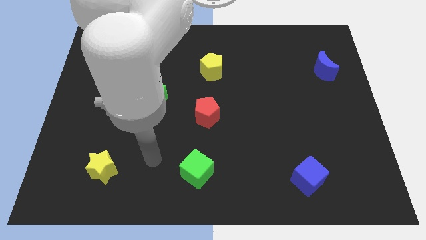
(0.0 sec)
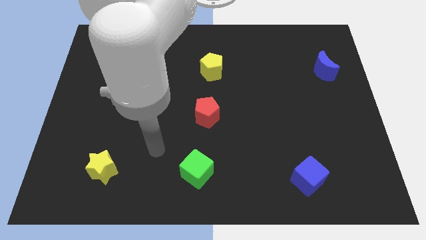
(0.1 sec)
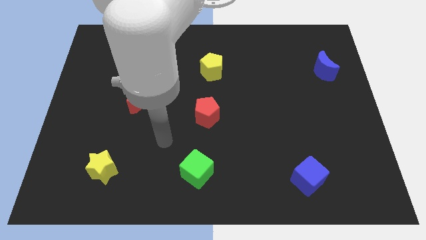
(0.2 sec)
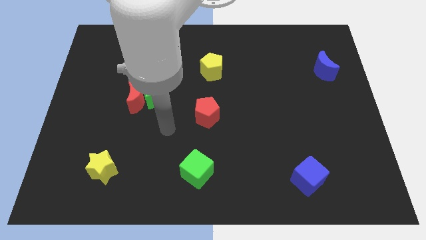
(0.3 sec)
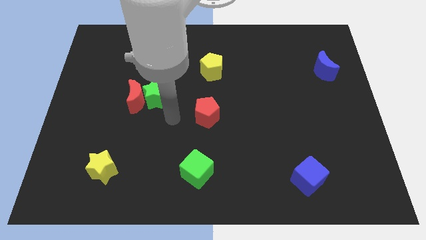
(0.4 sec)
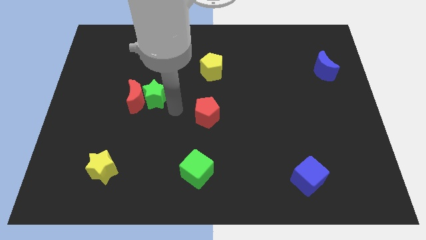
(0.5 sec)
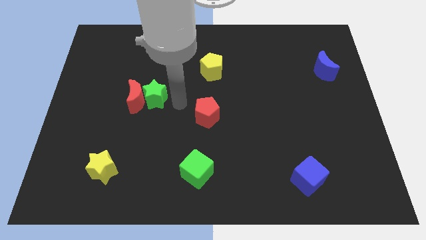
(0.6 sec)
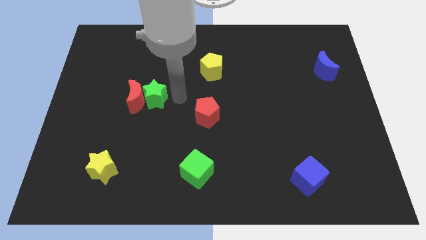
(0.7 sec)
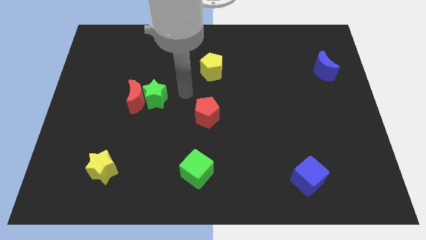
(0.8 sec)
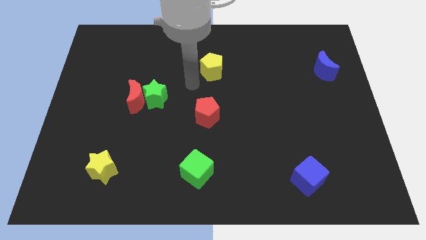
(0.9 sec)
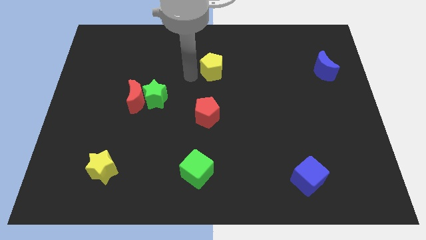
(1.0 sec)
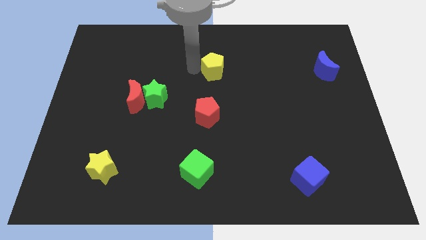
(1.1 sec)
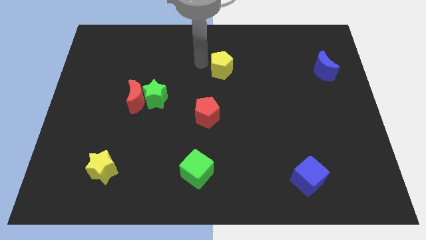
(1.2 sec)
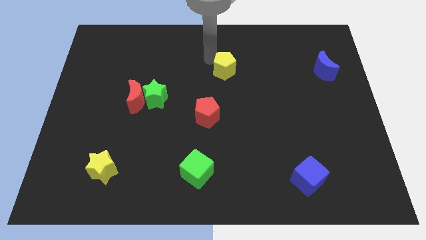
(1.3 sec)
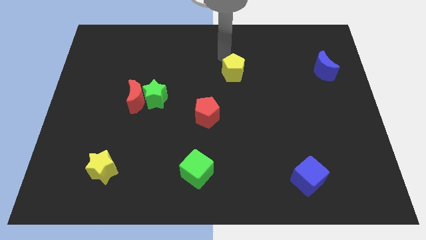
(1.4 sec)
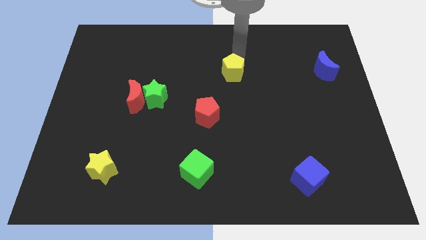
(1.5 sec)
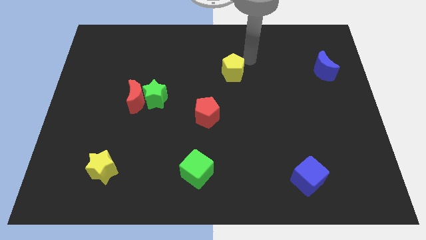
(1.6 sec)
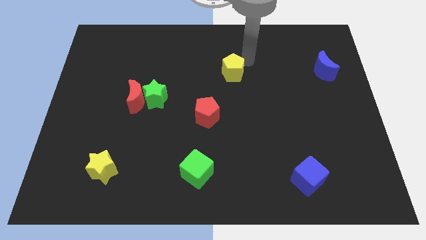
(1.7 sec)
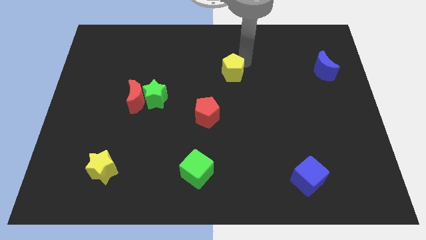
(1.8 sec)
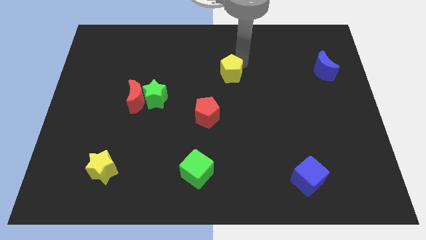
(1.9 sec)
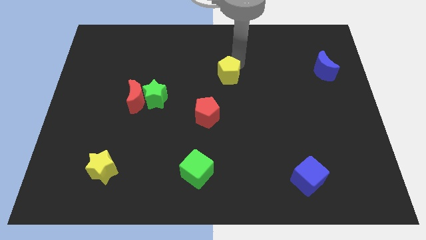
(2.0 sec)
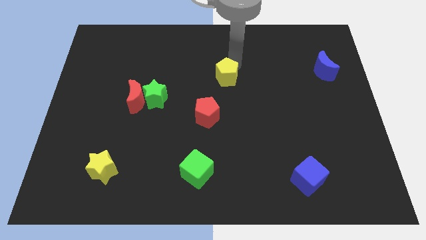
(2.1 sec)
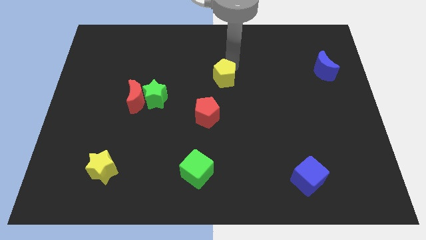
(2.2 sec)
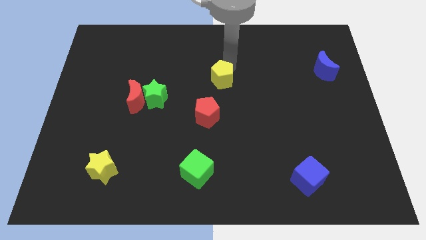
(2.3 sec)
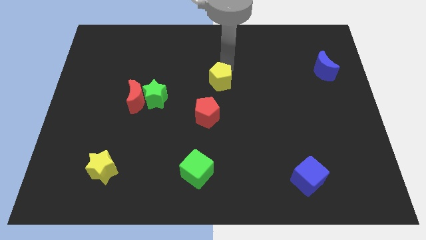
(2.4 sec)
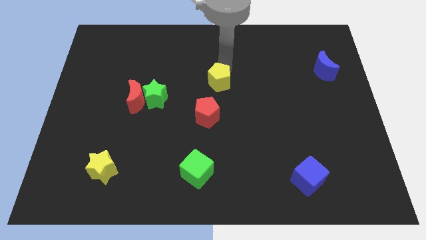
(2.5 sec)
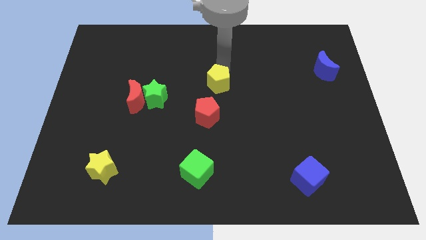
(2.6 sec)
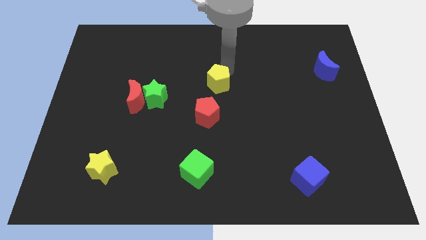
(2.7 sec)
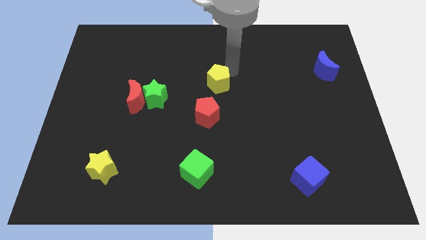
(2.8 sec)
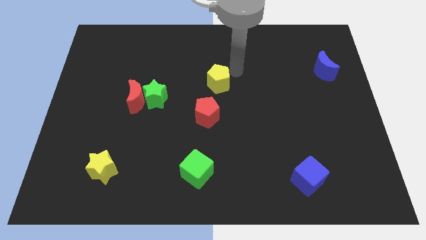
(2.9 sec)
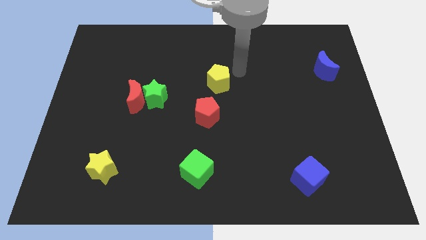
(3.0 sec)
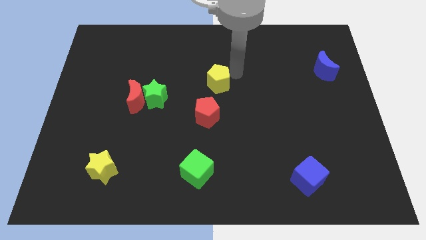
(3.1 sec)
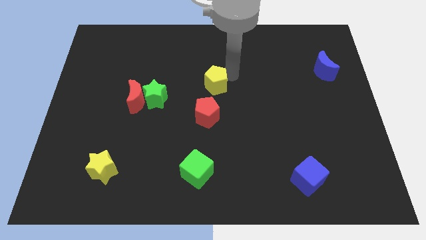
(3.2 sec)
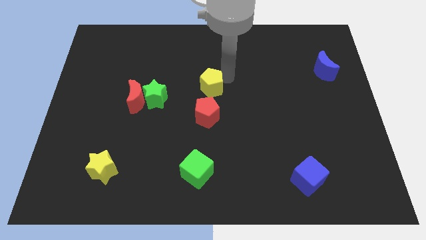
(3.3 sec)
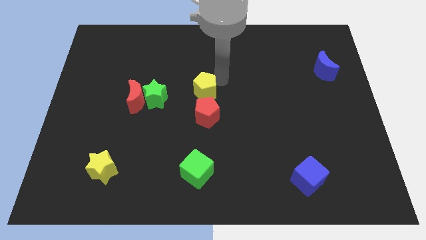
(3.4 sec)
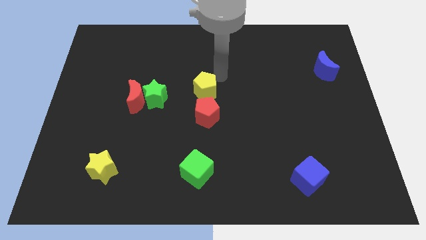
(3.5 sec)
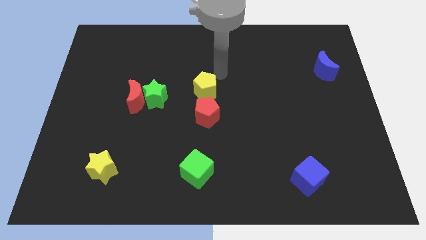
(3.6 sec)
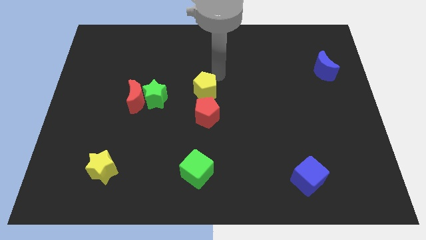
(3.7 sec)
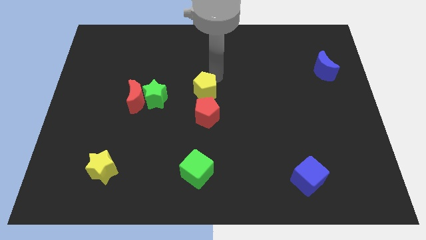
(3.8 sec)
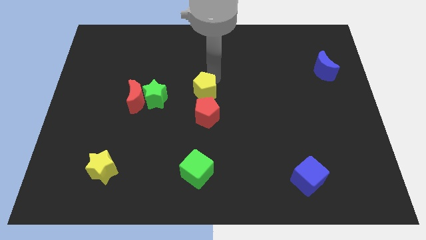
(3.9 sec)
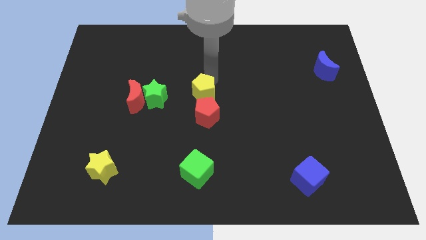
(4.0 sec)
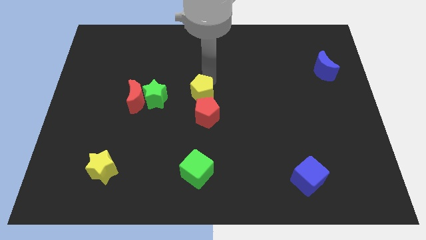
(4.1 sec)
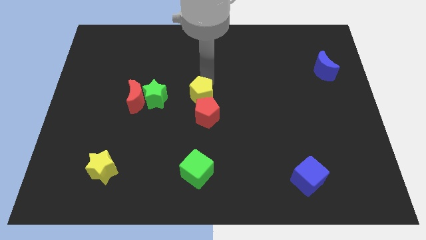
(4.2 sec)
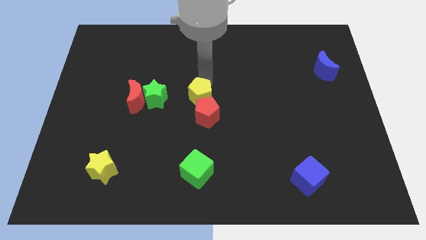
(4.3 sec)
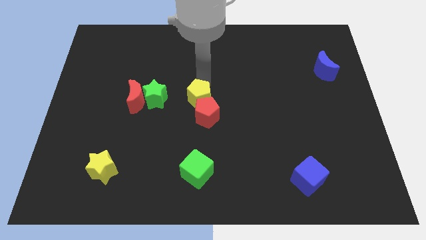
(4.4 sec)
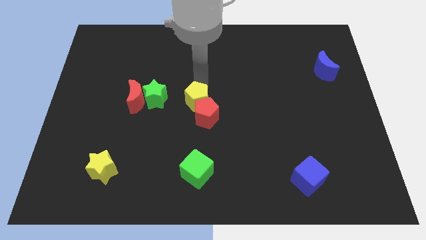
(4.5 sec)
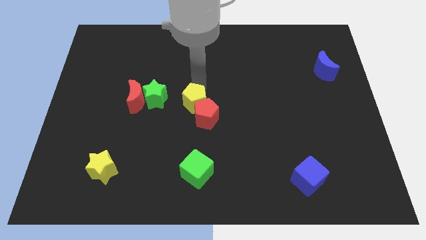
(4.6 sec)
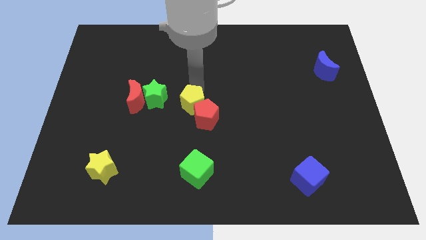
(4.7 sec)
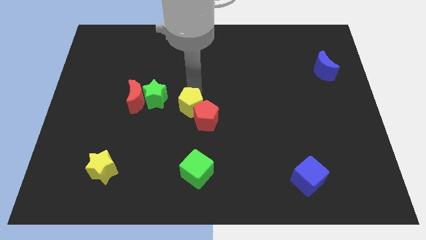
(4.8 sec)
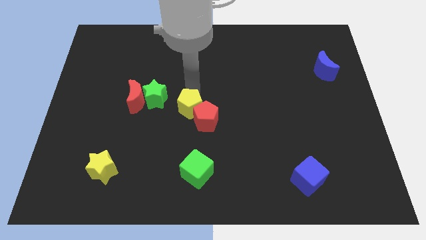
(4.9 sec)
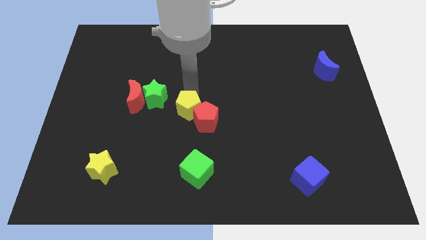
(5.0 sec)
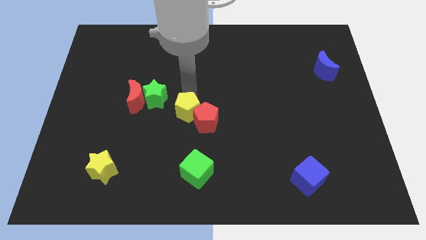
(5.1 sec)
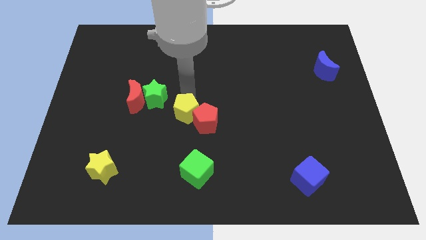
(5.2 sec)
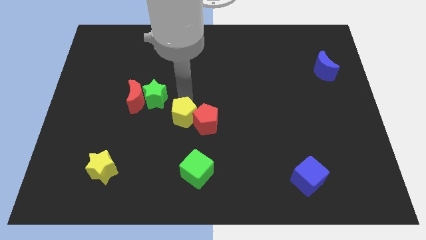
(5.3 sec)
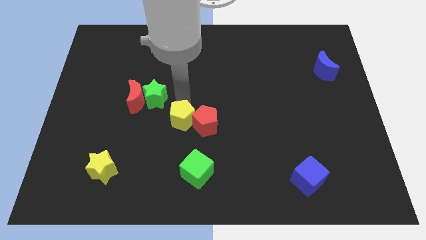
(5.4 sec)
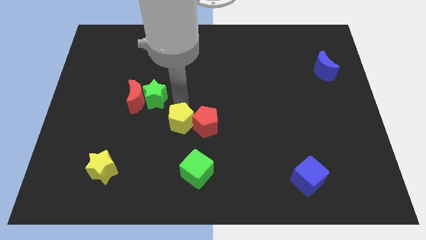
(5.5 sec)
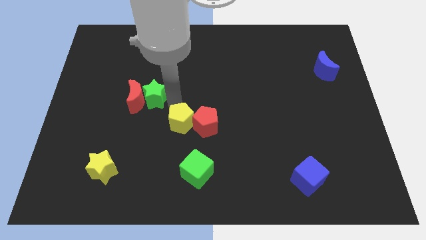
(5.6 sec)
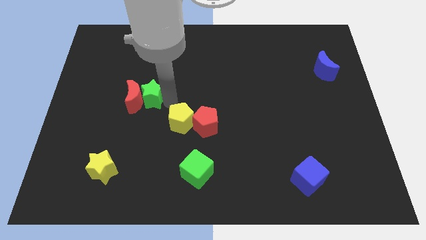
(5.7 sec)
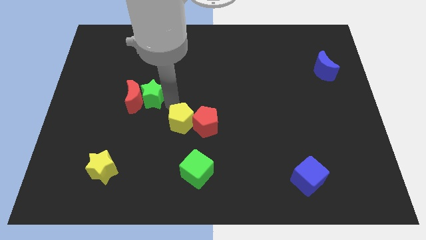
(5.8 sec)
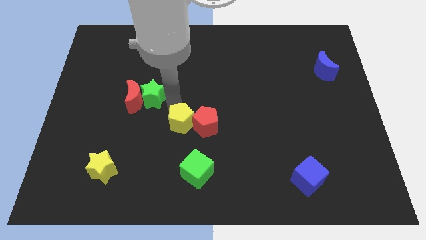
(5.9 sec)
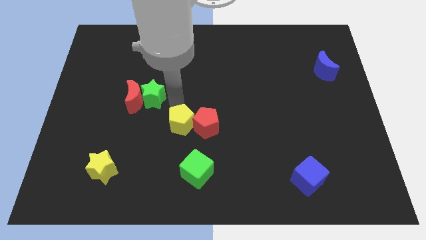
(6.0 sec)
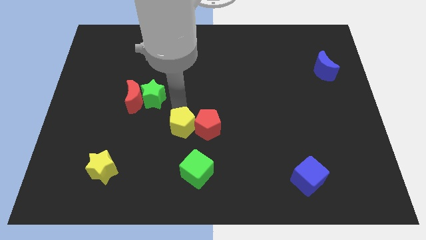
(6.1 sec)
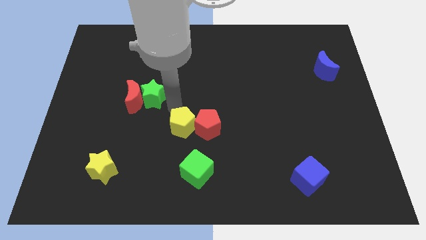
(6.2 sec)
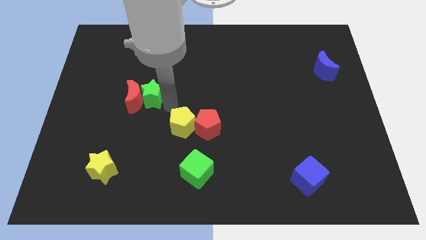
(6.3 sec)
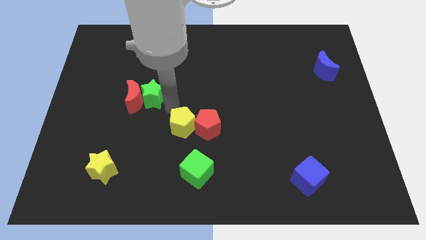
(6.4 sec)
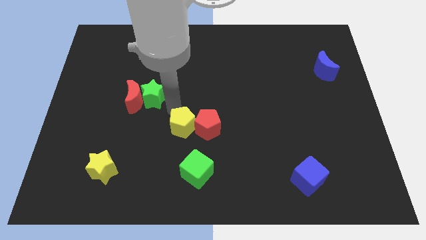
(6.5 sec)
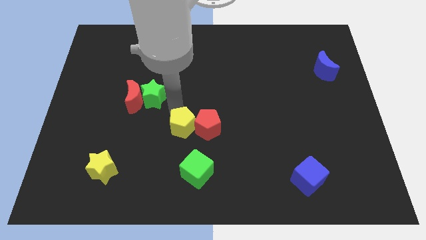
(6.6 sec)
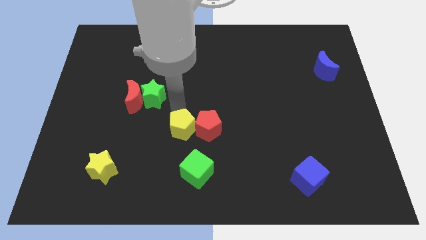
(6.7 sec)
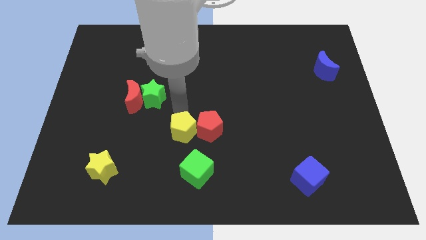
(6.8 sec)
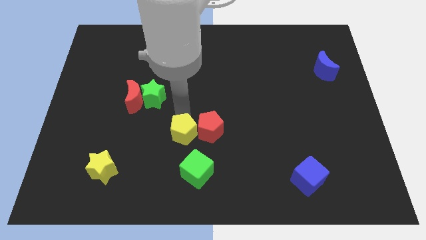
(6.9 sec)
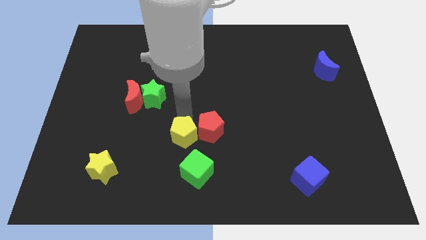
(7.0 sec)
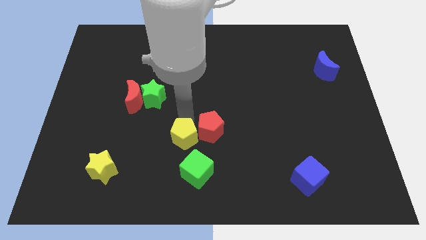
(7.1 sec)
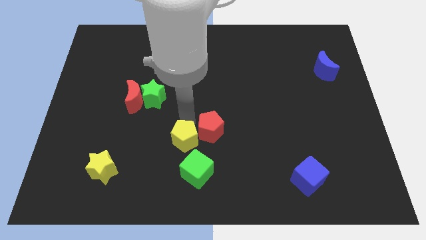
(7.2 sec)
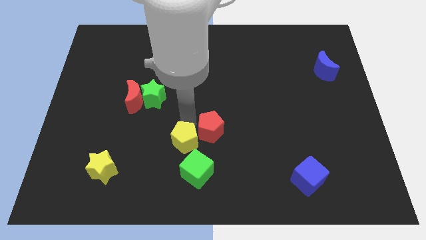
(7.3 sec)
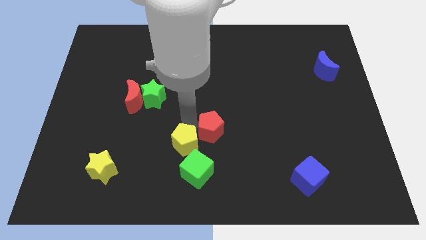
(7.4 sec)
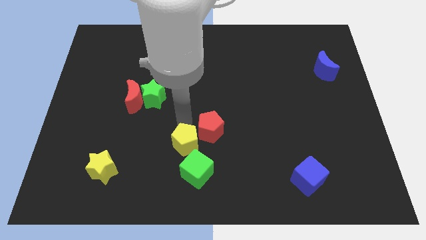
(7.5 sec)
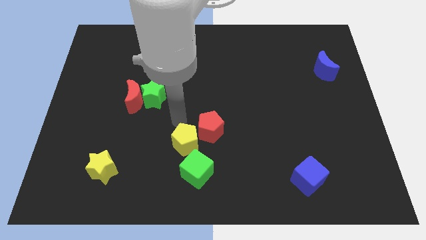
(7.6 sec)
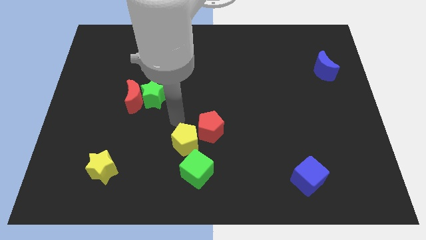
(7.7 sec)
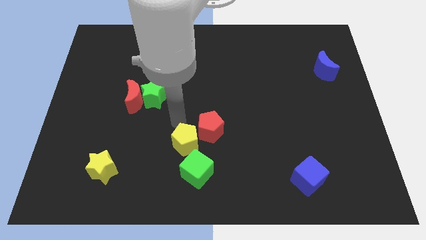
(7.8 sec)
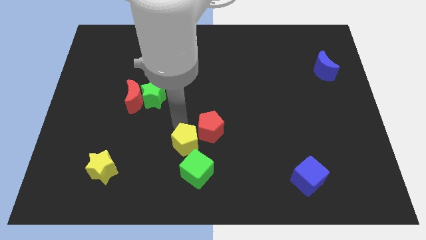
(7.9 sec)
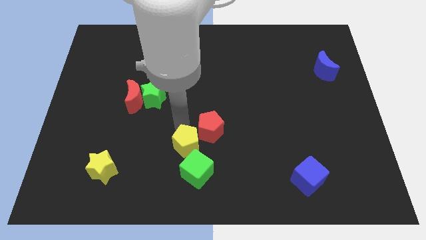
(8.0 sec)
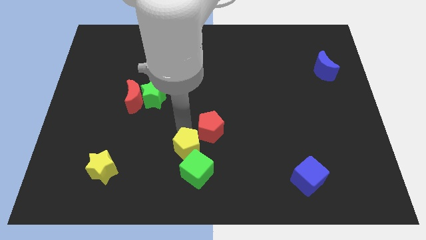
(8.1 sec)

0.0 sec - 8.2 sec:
push the yellow pentagon next to the green cube
